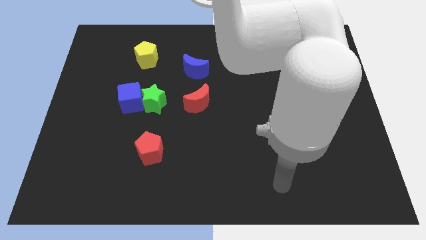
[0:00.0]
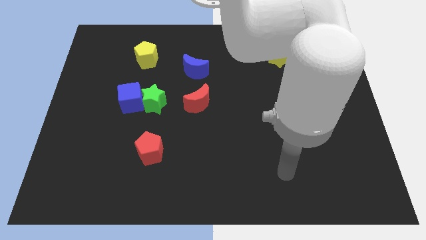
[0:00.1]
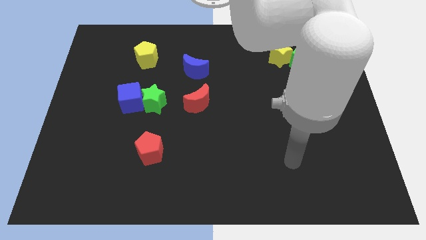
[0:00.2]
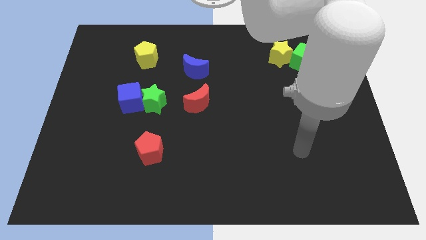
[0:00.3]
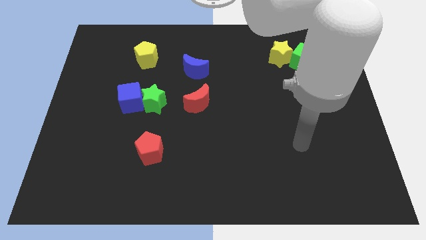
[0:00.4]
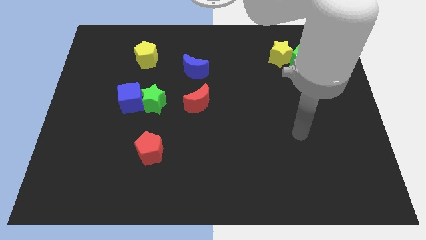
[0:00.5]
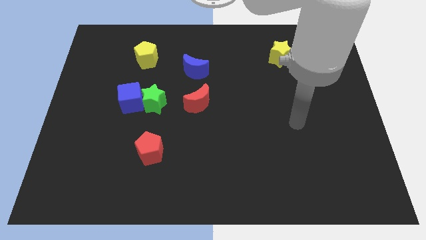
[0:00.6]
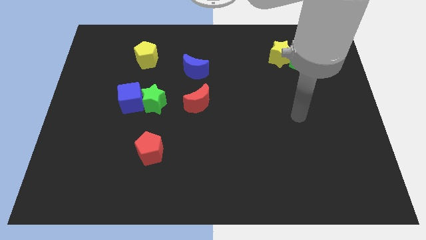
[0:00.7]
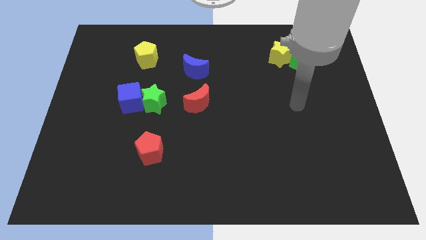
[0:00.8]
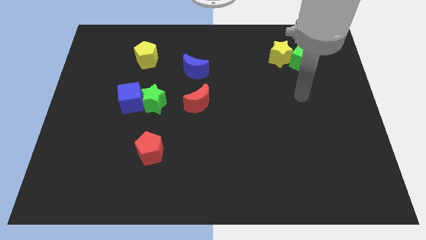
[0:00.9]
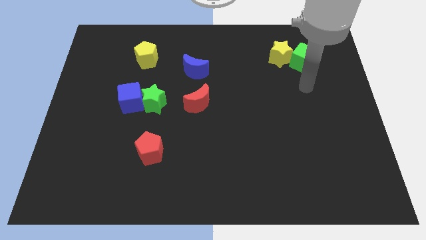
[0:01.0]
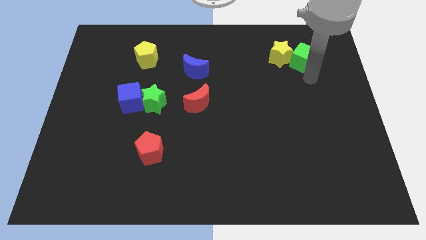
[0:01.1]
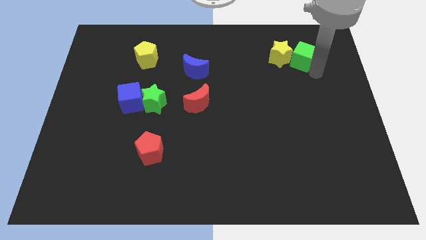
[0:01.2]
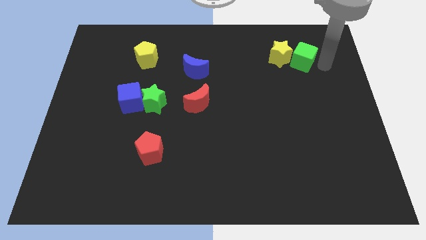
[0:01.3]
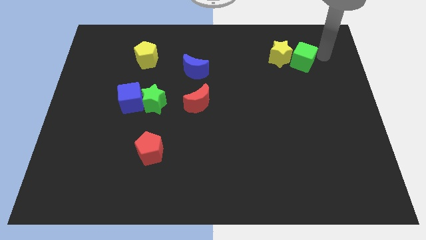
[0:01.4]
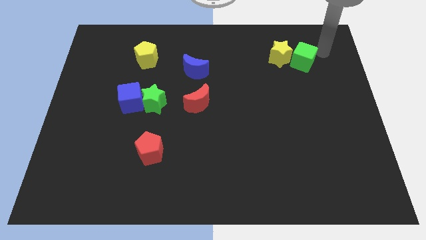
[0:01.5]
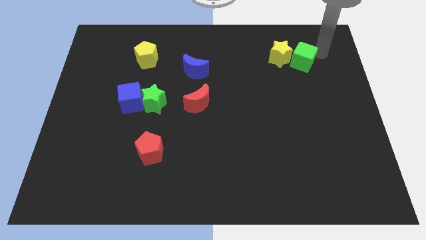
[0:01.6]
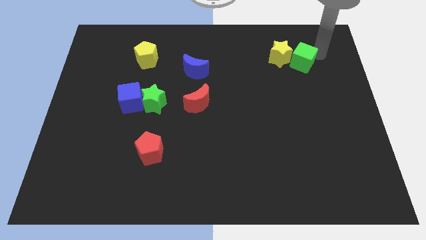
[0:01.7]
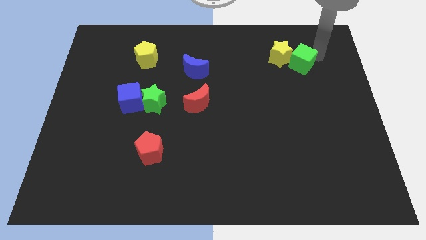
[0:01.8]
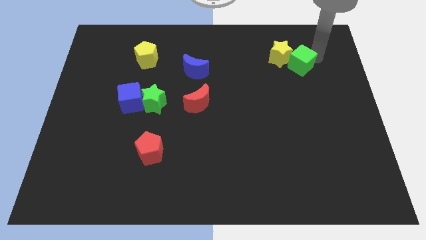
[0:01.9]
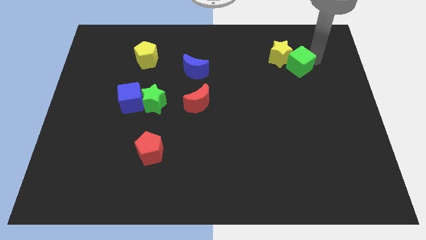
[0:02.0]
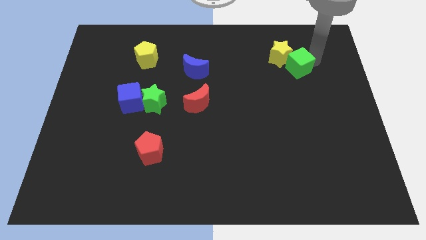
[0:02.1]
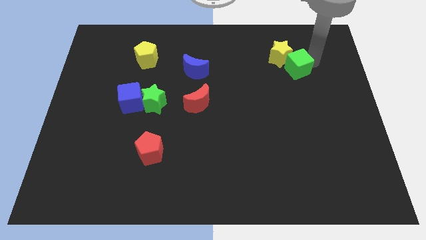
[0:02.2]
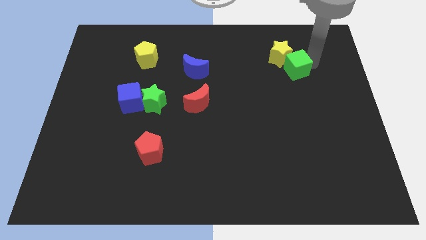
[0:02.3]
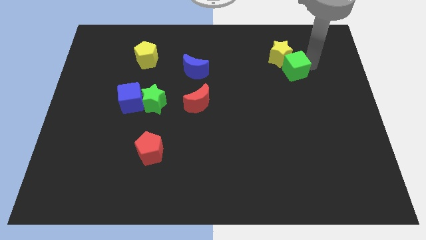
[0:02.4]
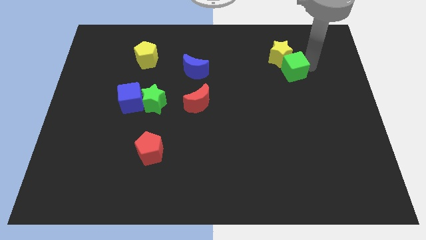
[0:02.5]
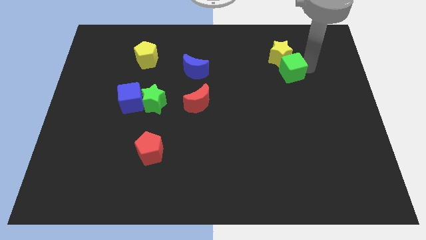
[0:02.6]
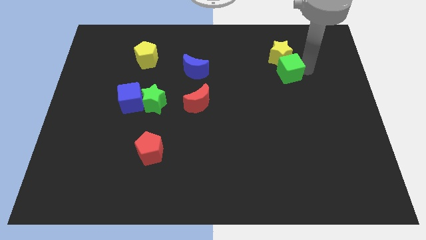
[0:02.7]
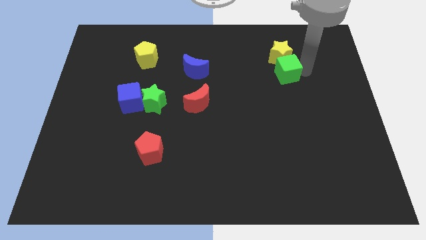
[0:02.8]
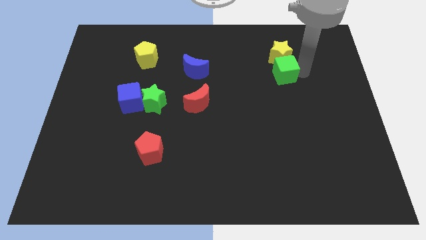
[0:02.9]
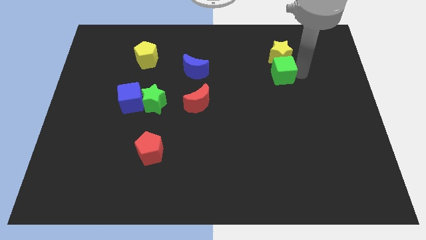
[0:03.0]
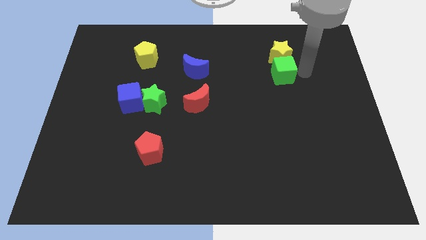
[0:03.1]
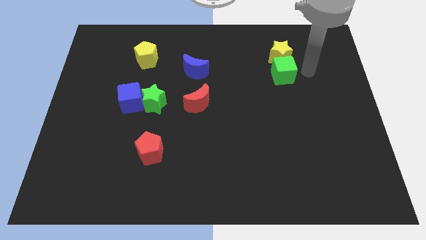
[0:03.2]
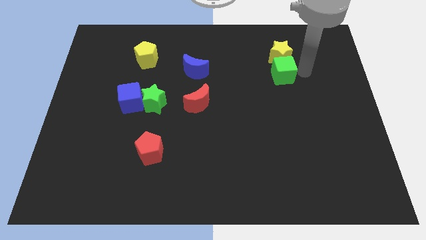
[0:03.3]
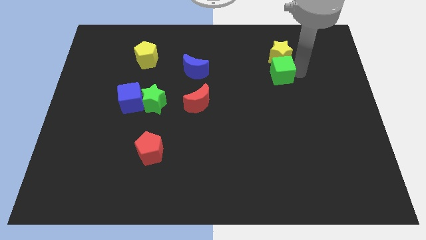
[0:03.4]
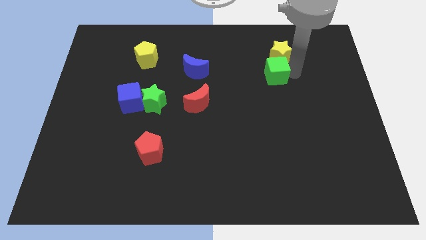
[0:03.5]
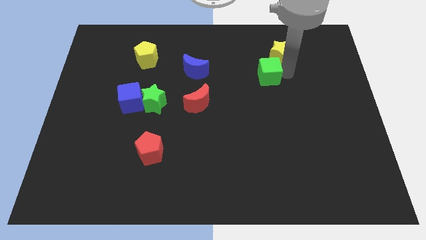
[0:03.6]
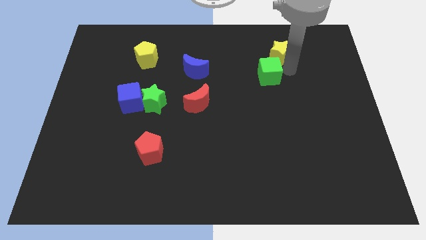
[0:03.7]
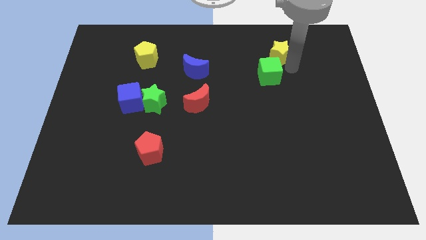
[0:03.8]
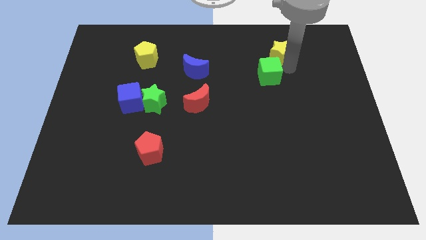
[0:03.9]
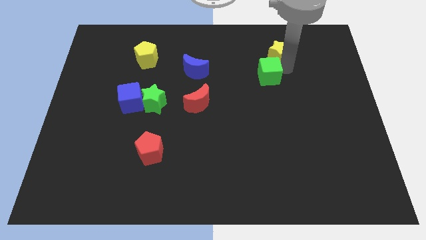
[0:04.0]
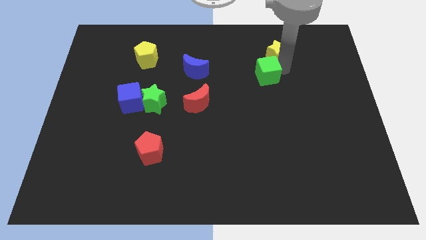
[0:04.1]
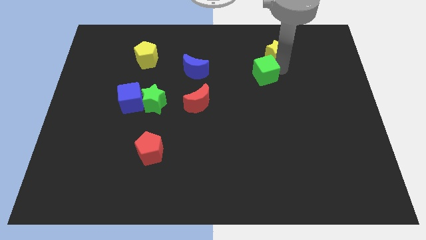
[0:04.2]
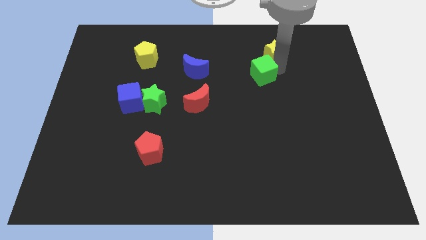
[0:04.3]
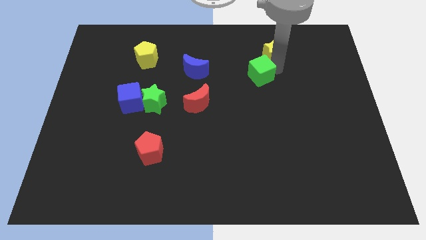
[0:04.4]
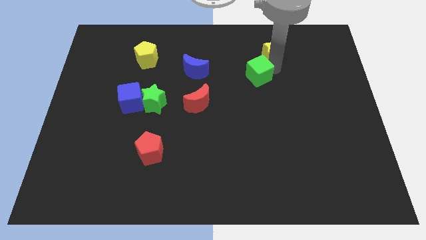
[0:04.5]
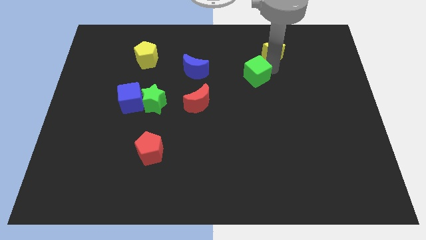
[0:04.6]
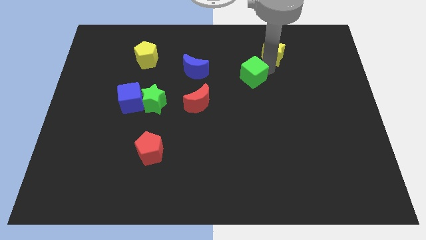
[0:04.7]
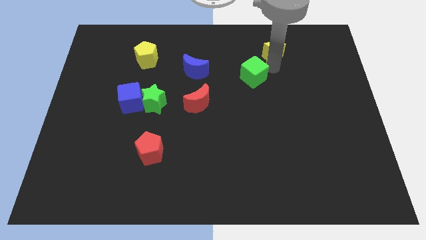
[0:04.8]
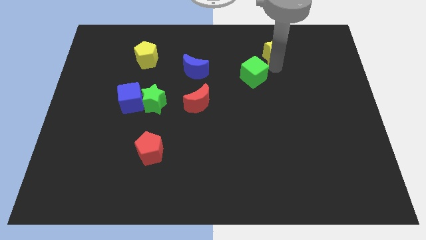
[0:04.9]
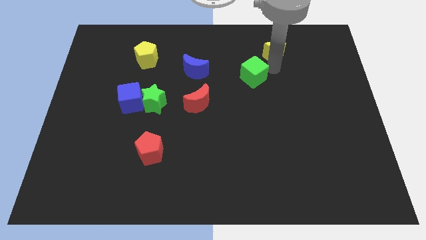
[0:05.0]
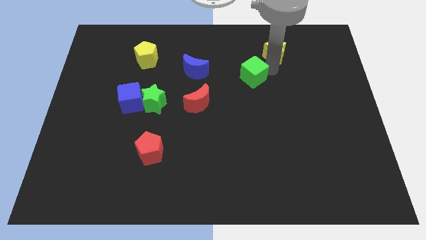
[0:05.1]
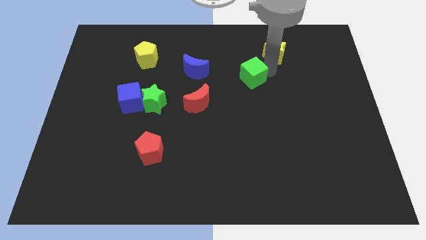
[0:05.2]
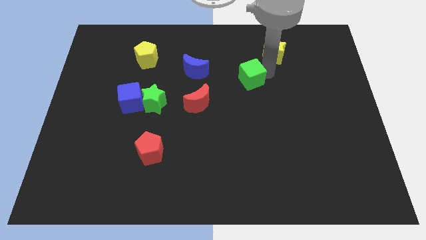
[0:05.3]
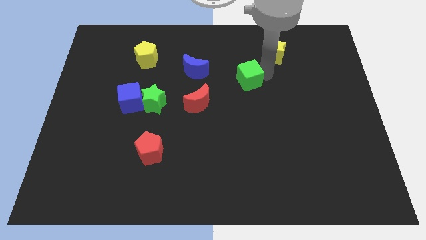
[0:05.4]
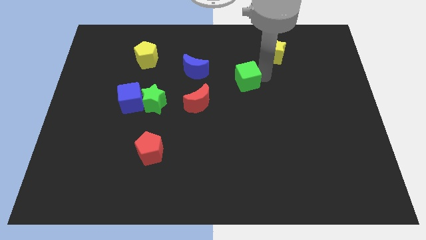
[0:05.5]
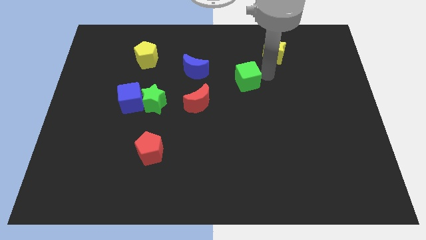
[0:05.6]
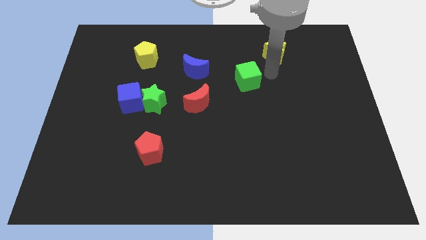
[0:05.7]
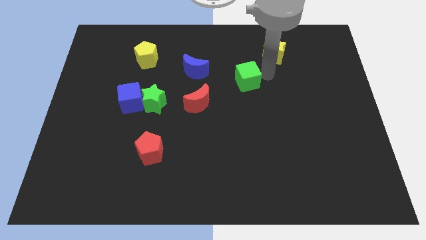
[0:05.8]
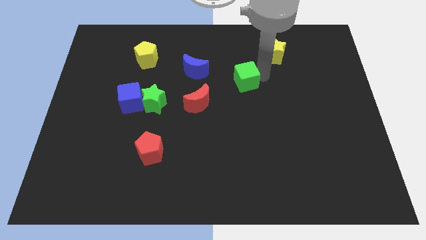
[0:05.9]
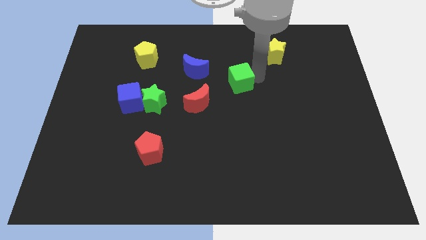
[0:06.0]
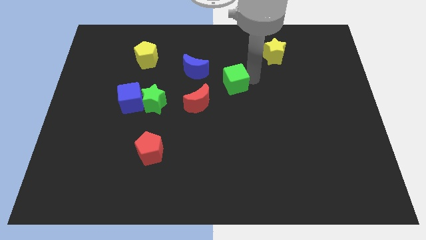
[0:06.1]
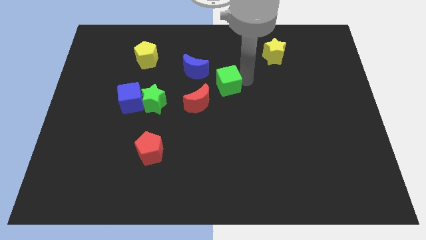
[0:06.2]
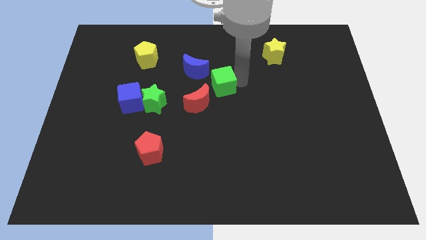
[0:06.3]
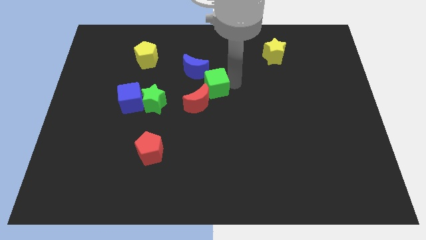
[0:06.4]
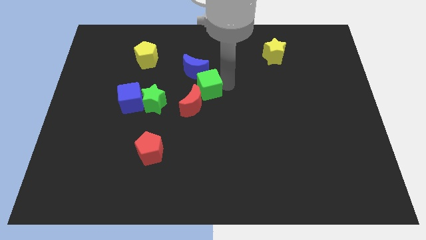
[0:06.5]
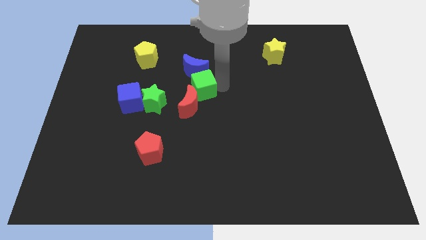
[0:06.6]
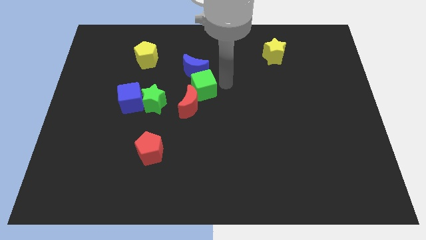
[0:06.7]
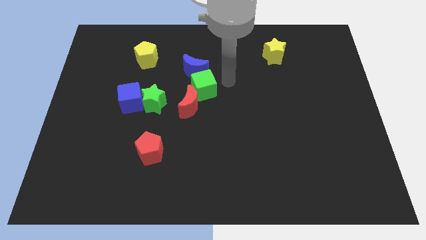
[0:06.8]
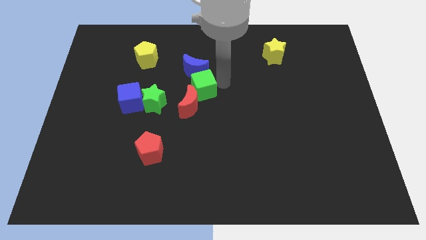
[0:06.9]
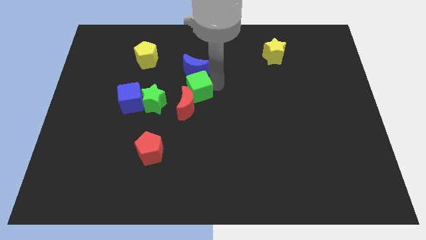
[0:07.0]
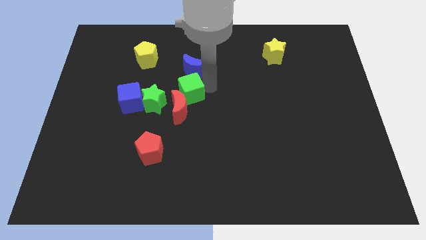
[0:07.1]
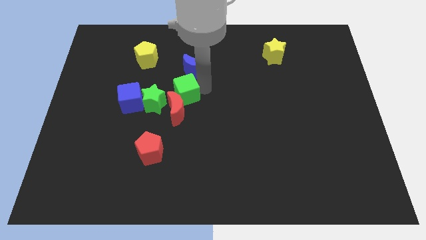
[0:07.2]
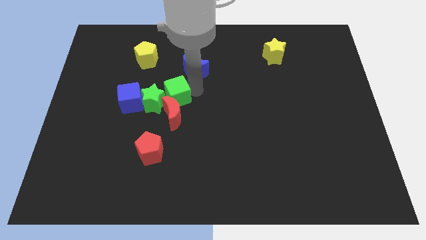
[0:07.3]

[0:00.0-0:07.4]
push the green cube close to the green star
